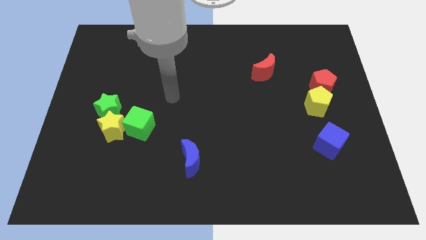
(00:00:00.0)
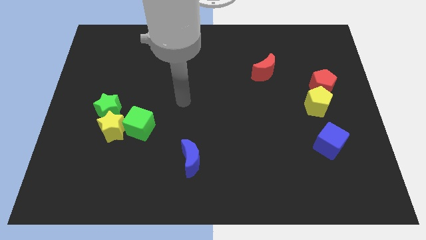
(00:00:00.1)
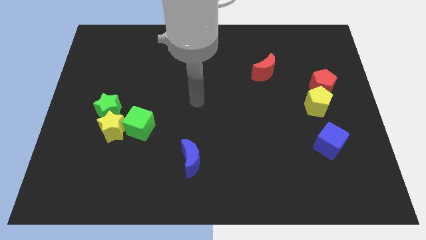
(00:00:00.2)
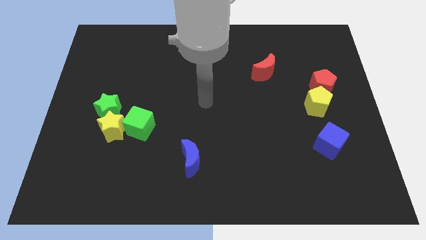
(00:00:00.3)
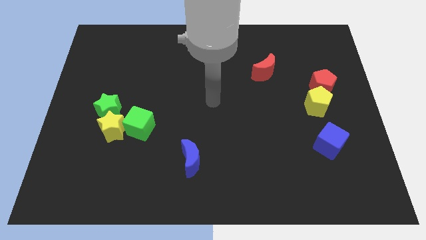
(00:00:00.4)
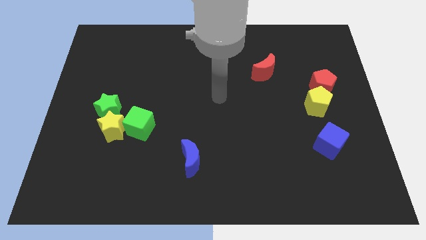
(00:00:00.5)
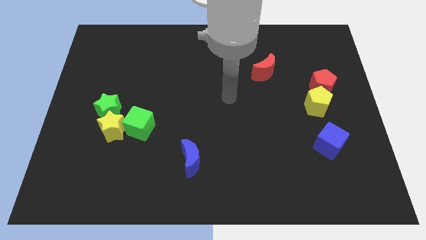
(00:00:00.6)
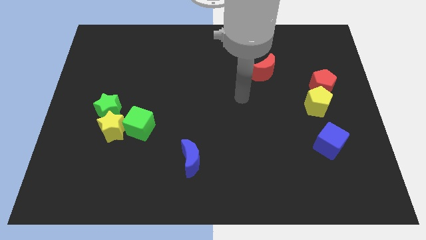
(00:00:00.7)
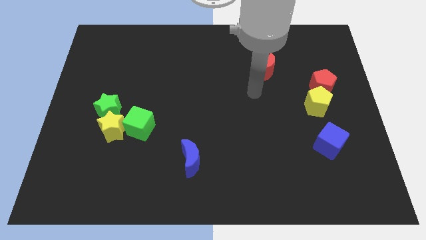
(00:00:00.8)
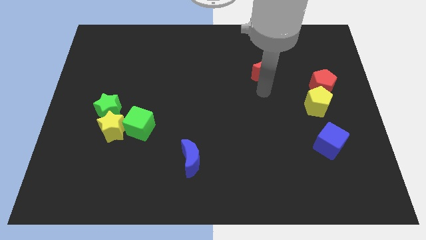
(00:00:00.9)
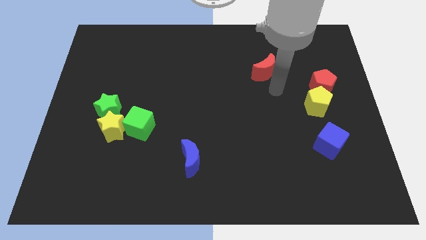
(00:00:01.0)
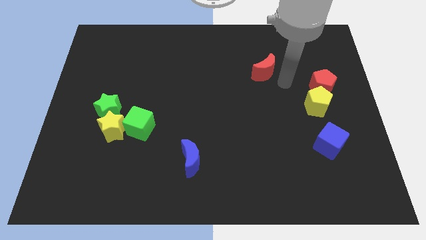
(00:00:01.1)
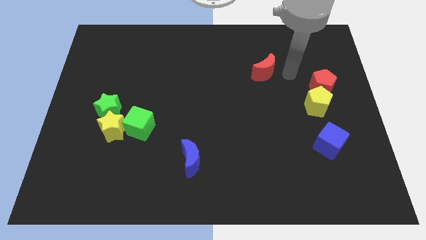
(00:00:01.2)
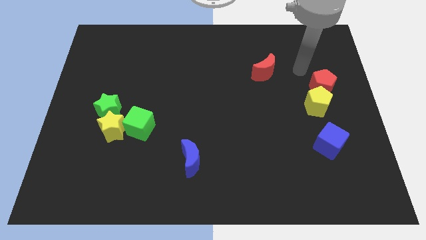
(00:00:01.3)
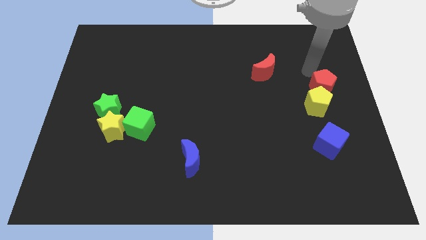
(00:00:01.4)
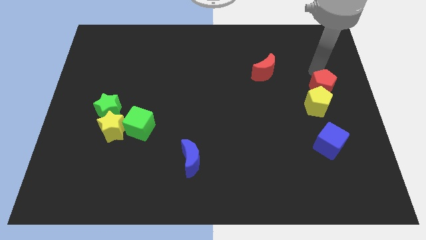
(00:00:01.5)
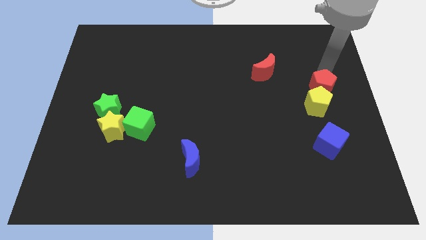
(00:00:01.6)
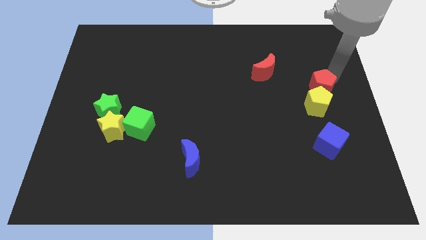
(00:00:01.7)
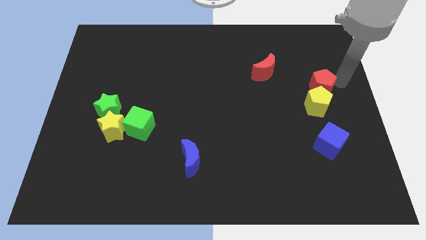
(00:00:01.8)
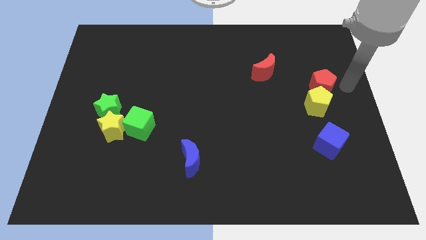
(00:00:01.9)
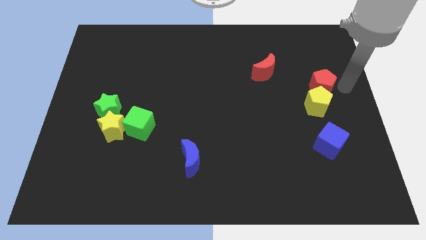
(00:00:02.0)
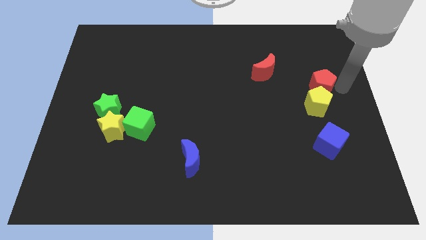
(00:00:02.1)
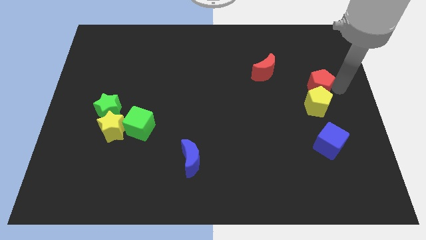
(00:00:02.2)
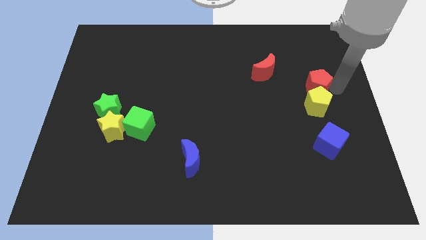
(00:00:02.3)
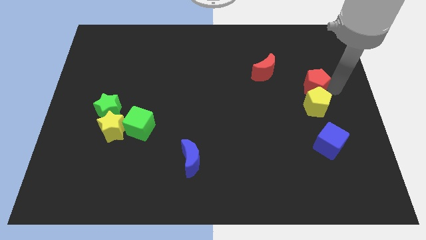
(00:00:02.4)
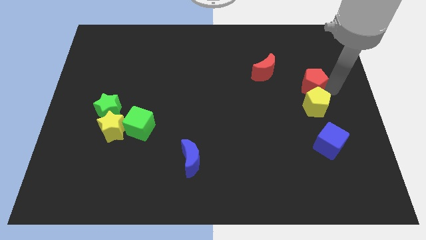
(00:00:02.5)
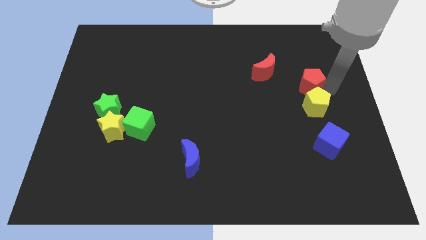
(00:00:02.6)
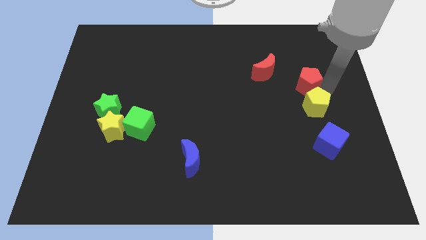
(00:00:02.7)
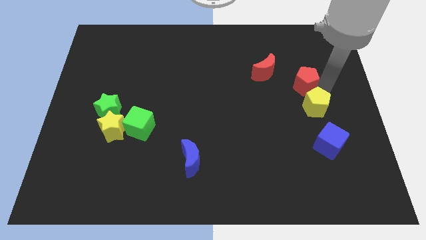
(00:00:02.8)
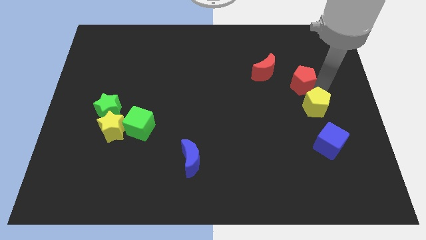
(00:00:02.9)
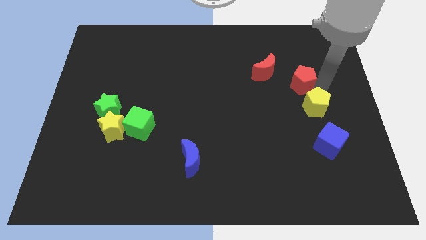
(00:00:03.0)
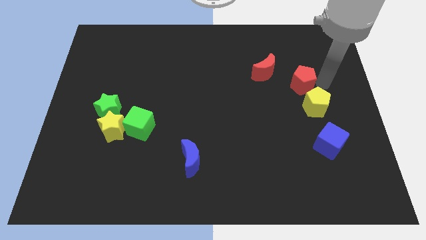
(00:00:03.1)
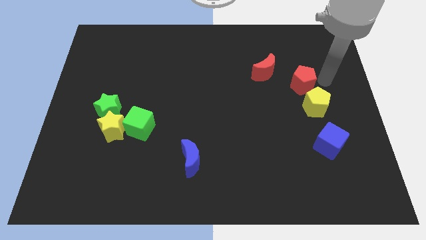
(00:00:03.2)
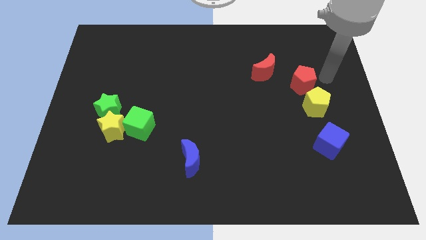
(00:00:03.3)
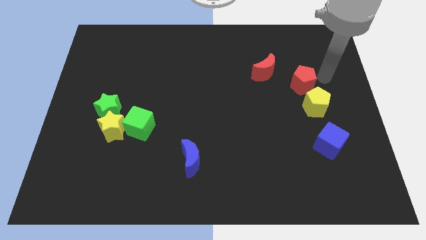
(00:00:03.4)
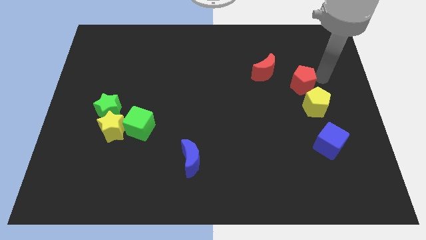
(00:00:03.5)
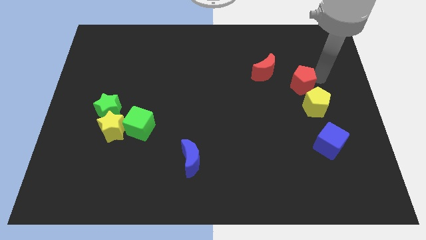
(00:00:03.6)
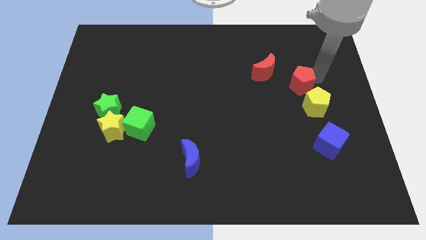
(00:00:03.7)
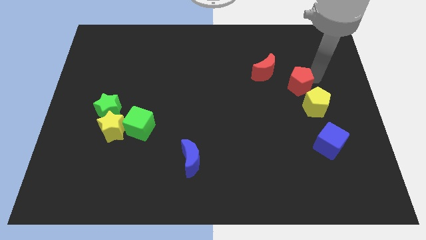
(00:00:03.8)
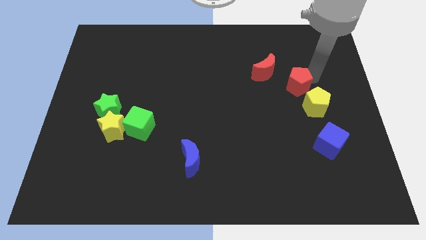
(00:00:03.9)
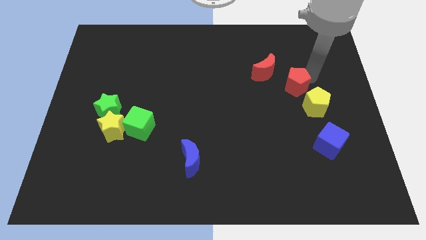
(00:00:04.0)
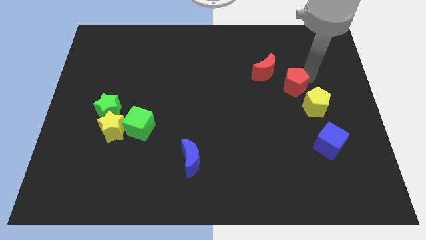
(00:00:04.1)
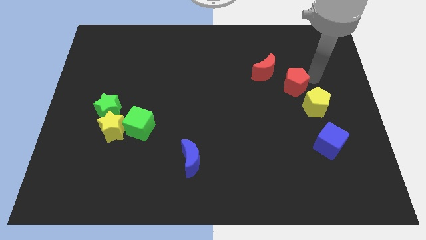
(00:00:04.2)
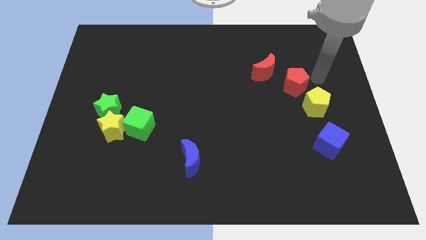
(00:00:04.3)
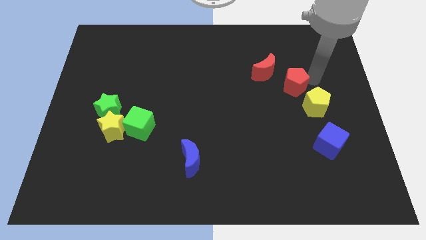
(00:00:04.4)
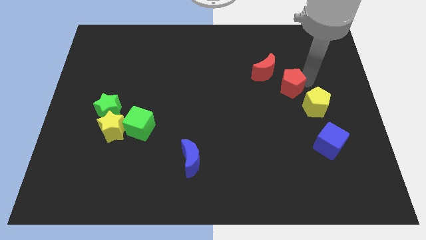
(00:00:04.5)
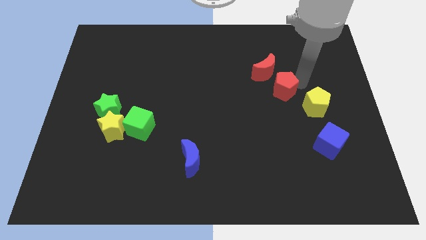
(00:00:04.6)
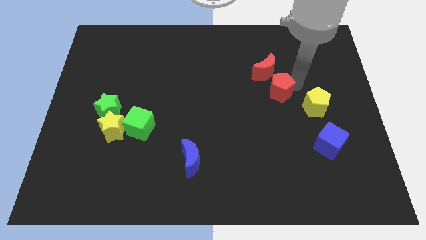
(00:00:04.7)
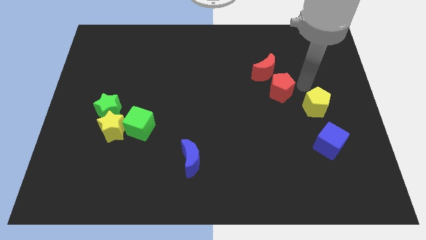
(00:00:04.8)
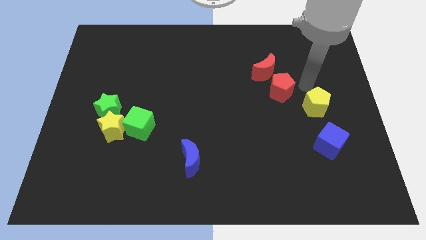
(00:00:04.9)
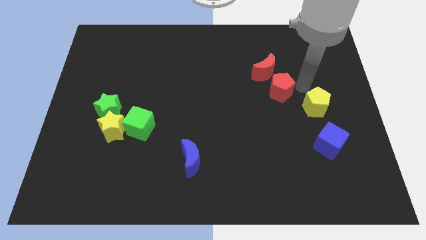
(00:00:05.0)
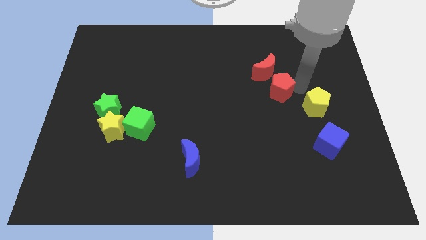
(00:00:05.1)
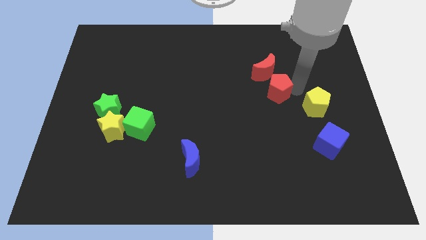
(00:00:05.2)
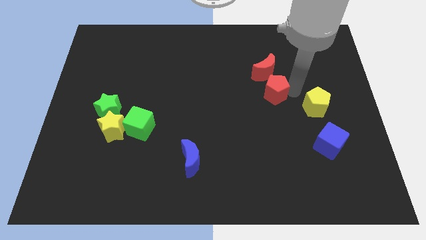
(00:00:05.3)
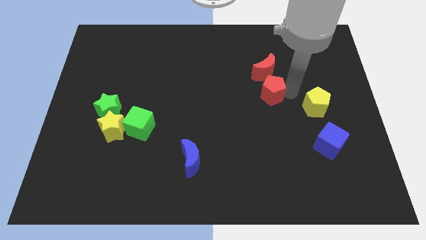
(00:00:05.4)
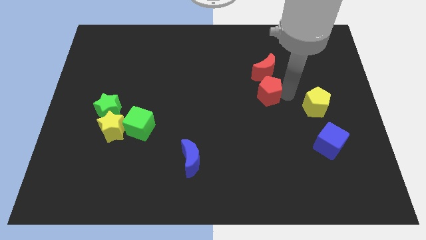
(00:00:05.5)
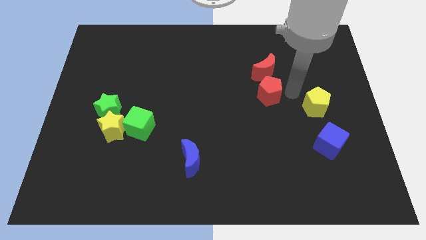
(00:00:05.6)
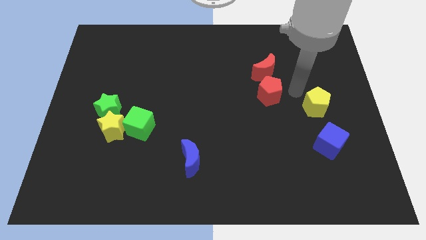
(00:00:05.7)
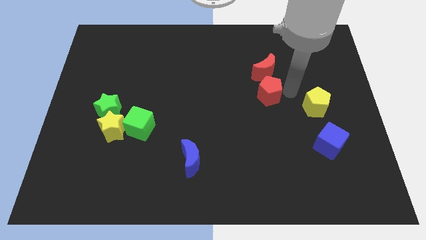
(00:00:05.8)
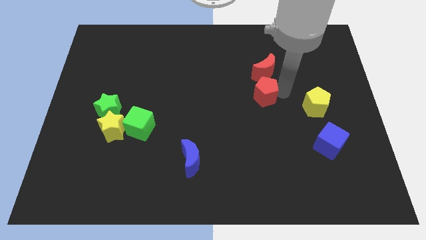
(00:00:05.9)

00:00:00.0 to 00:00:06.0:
slide the red pentagon to the middle of the board

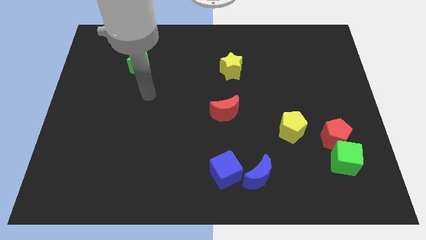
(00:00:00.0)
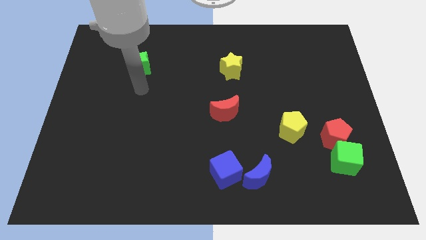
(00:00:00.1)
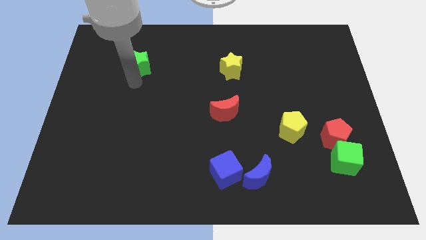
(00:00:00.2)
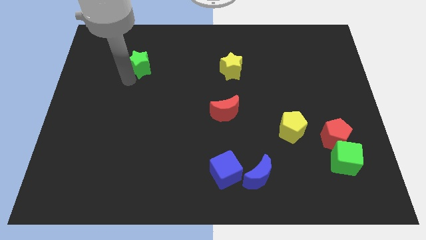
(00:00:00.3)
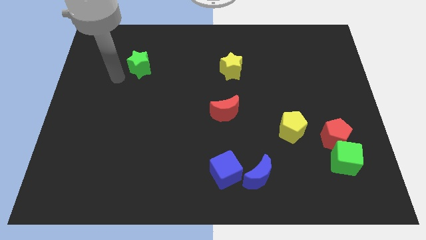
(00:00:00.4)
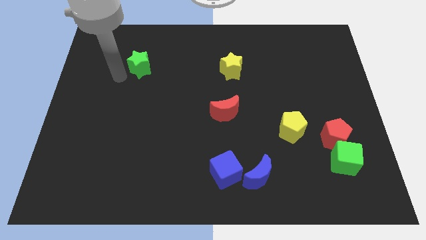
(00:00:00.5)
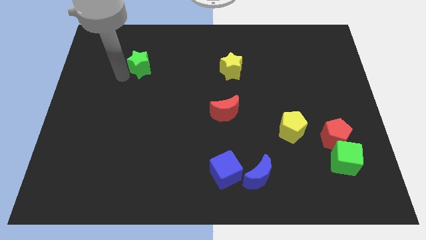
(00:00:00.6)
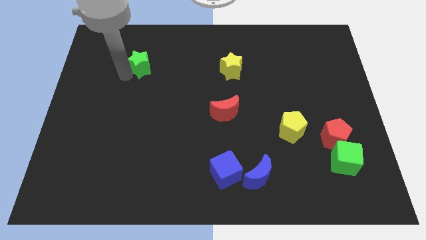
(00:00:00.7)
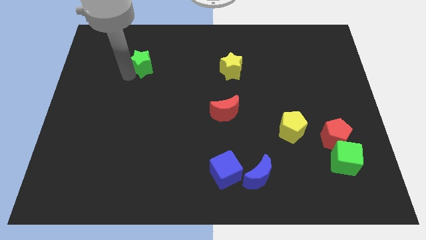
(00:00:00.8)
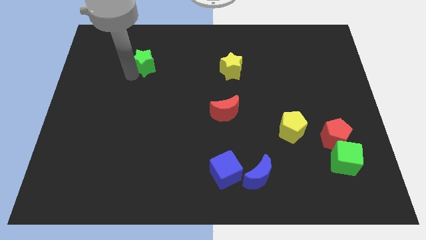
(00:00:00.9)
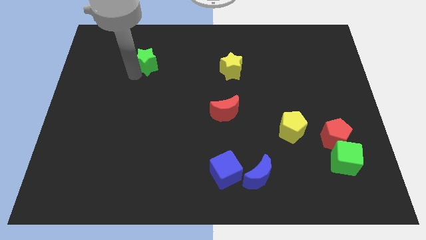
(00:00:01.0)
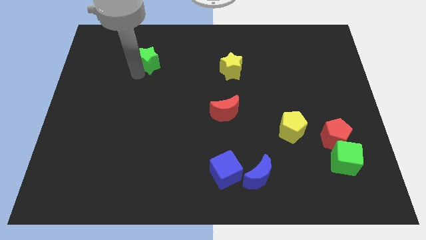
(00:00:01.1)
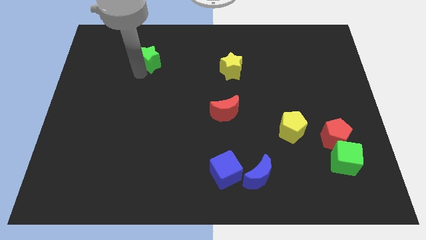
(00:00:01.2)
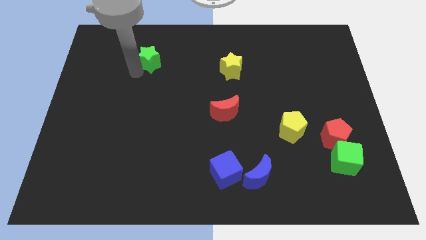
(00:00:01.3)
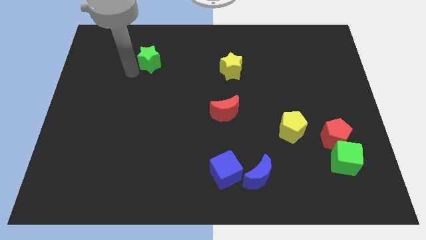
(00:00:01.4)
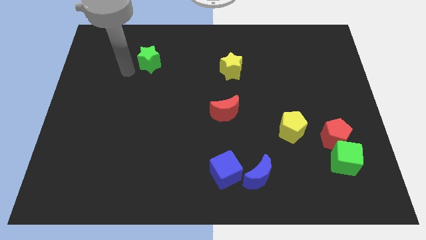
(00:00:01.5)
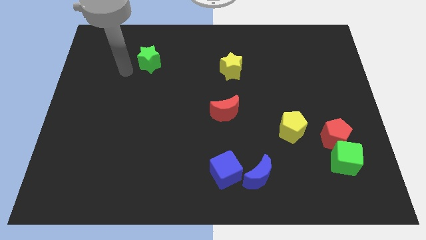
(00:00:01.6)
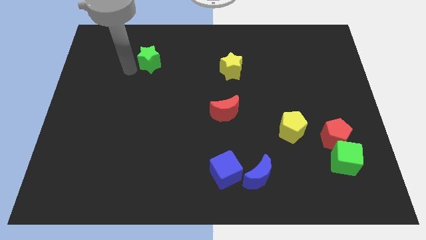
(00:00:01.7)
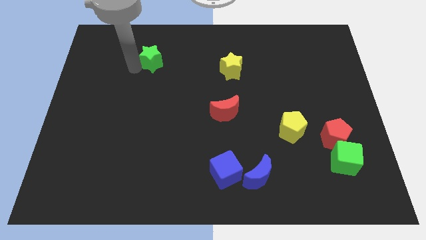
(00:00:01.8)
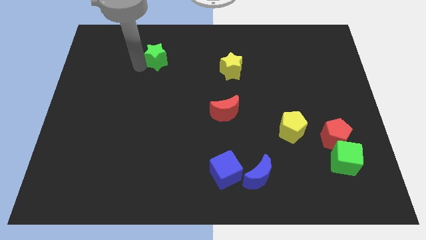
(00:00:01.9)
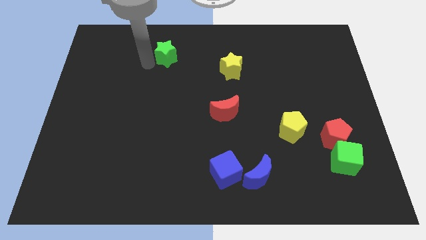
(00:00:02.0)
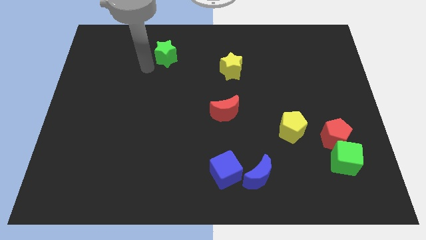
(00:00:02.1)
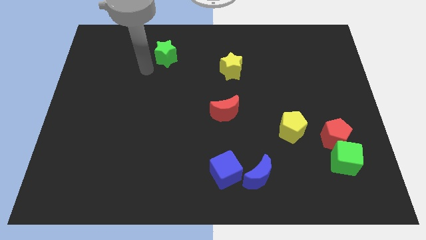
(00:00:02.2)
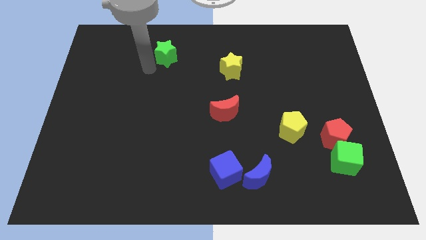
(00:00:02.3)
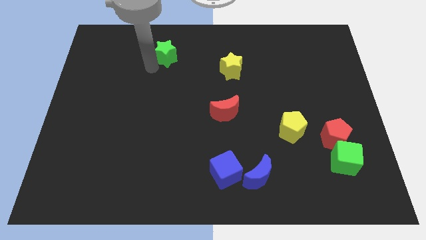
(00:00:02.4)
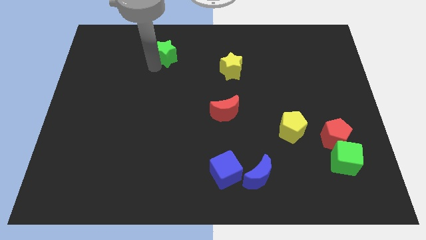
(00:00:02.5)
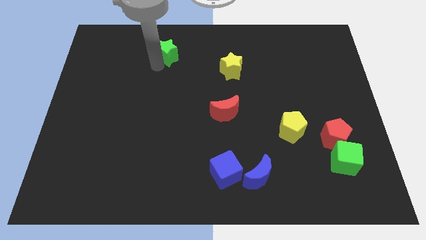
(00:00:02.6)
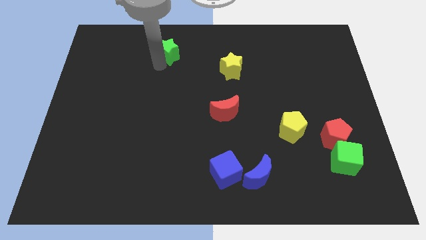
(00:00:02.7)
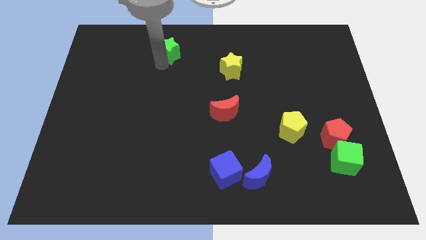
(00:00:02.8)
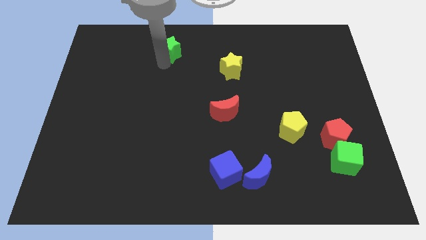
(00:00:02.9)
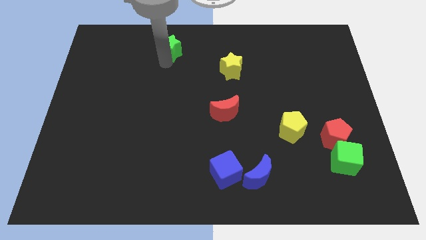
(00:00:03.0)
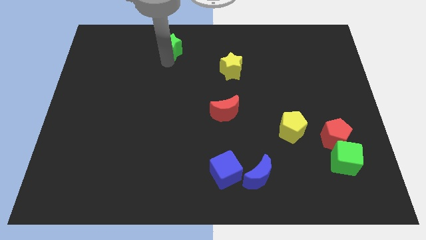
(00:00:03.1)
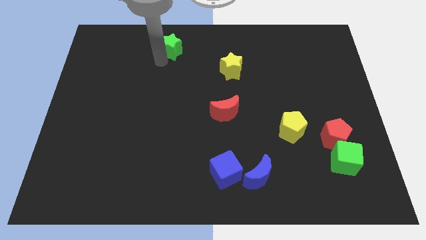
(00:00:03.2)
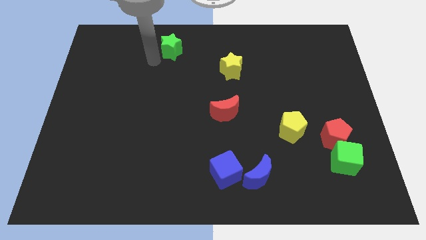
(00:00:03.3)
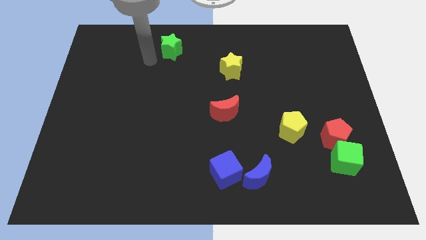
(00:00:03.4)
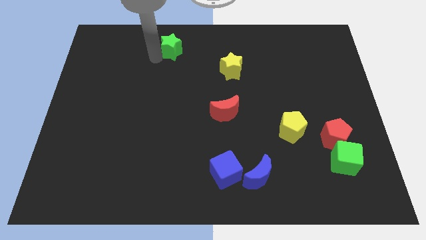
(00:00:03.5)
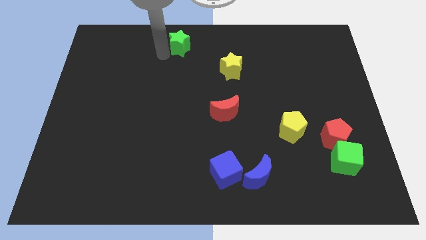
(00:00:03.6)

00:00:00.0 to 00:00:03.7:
slide the green star to the towards your base
